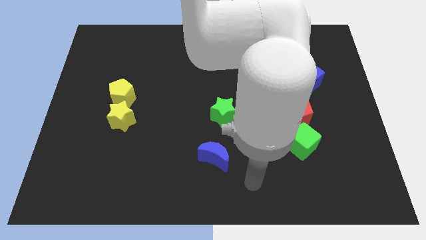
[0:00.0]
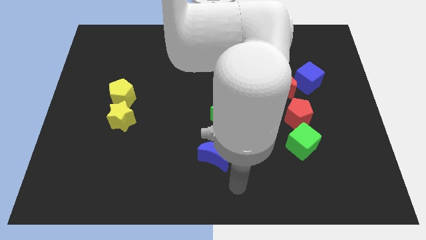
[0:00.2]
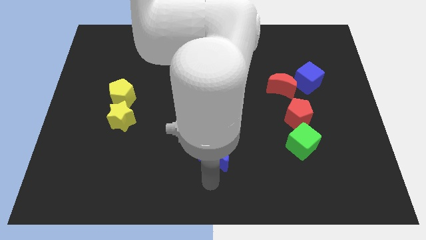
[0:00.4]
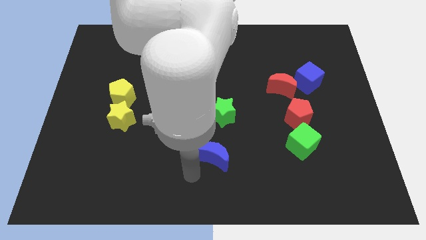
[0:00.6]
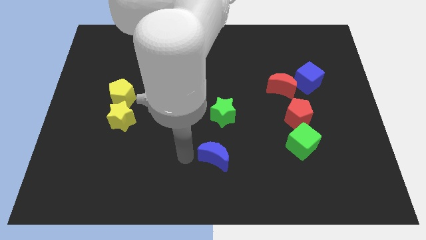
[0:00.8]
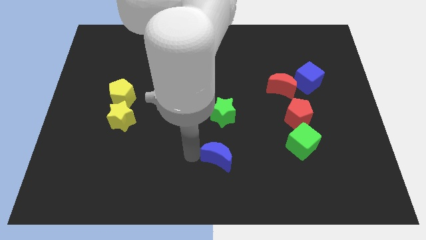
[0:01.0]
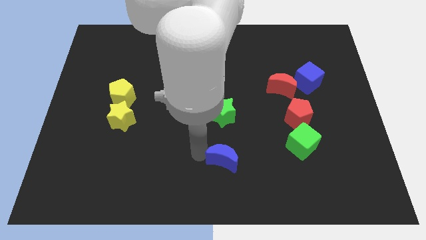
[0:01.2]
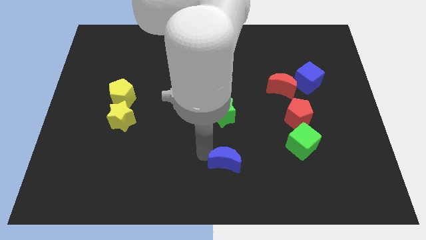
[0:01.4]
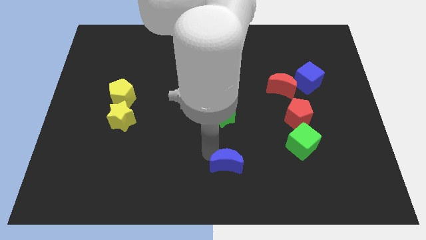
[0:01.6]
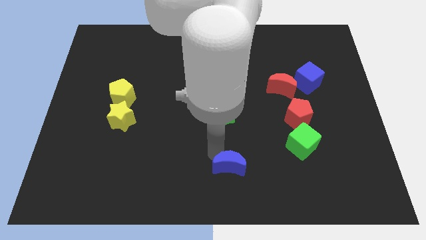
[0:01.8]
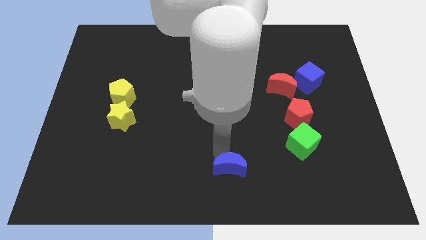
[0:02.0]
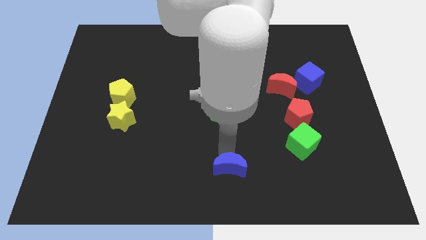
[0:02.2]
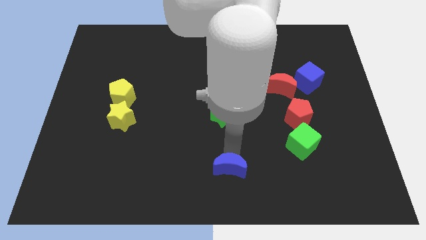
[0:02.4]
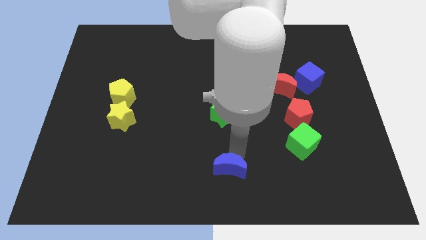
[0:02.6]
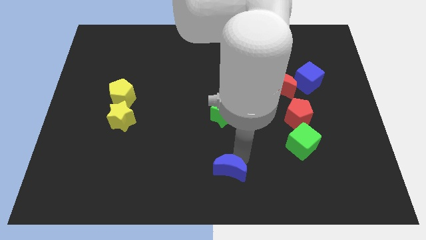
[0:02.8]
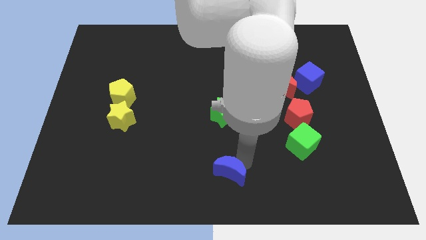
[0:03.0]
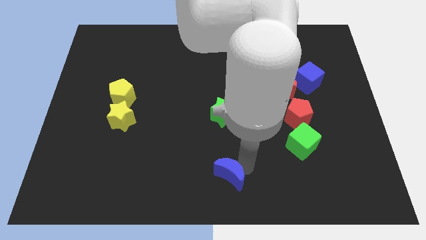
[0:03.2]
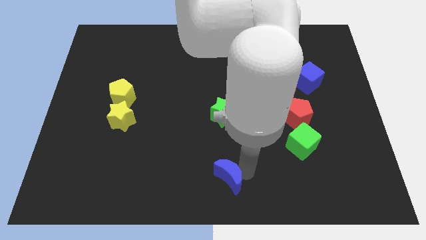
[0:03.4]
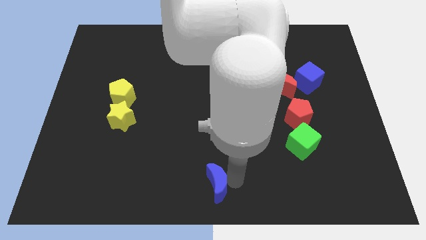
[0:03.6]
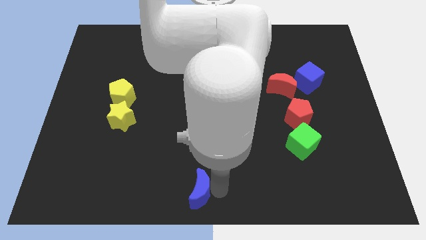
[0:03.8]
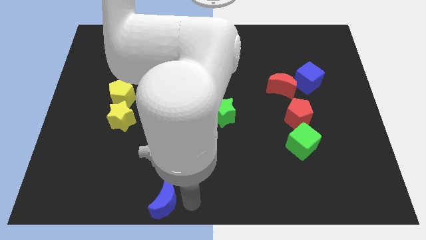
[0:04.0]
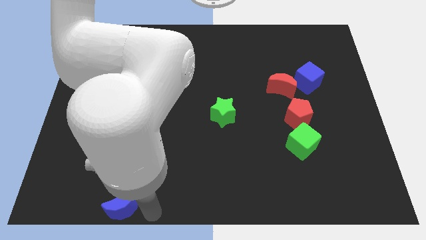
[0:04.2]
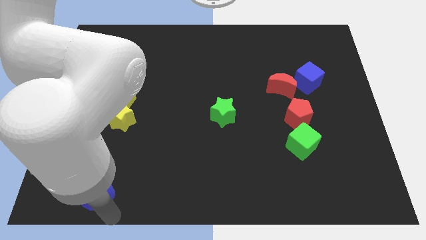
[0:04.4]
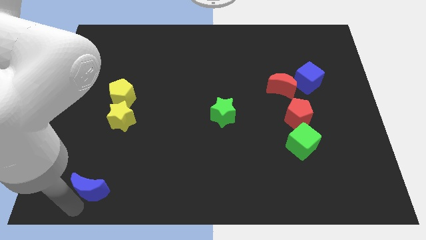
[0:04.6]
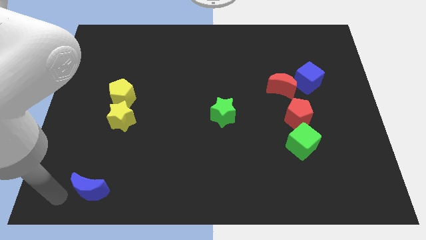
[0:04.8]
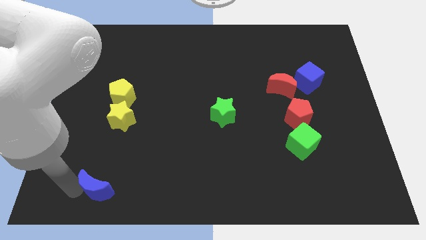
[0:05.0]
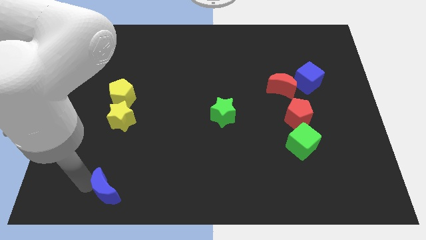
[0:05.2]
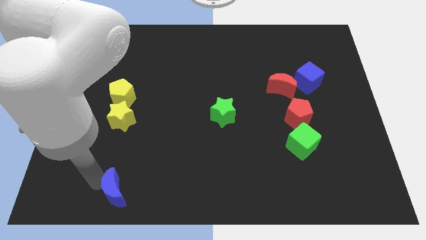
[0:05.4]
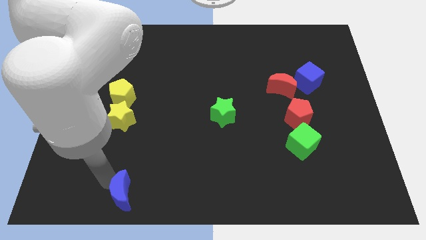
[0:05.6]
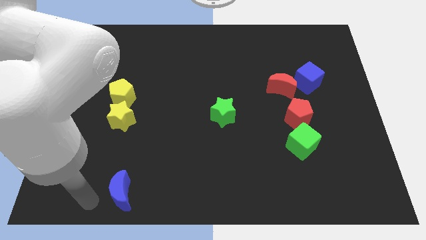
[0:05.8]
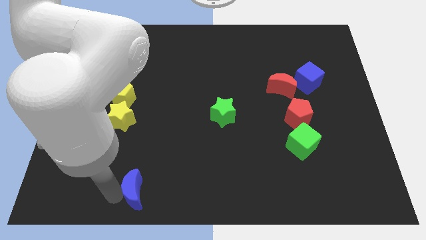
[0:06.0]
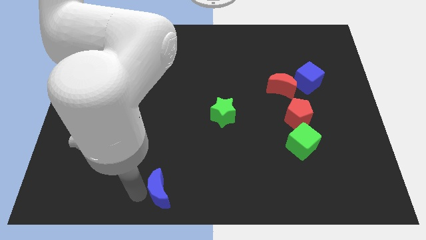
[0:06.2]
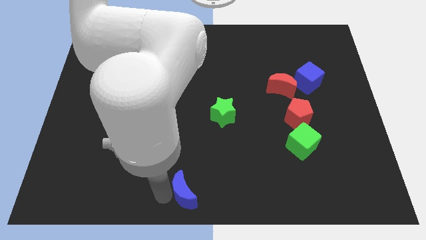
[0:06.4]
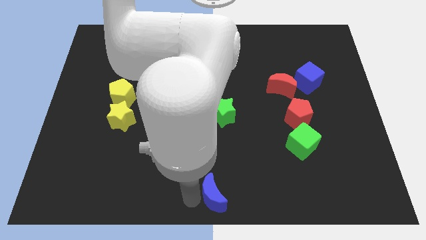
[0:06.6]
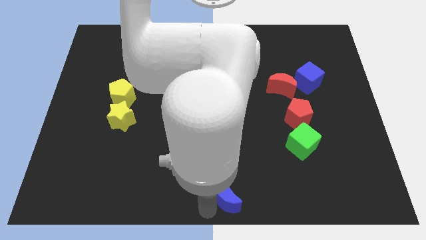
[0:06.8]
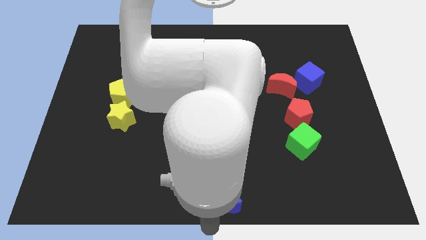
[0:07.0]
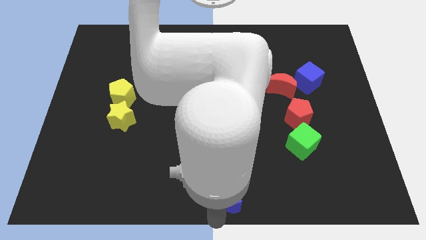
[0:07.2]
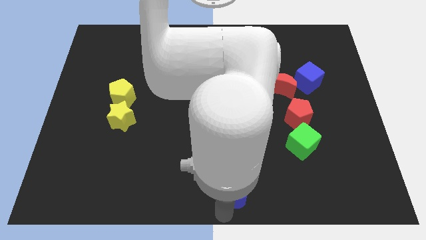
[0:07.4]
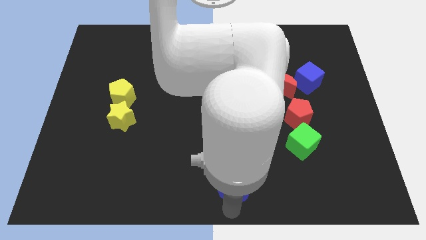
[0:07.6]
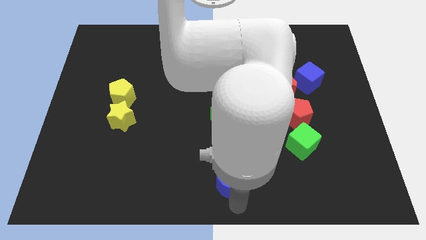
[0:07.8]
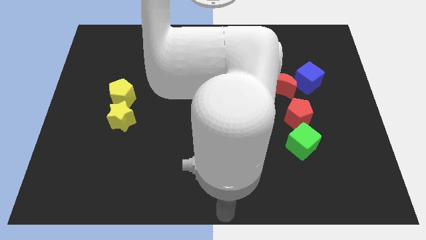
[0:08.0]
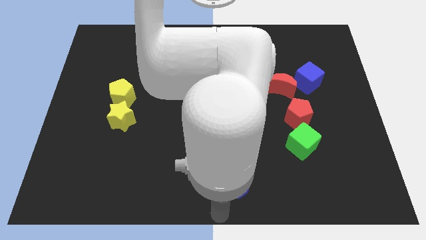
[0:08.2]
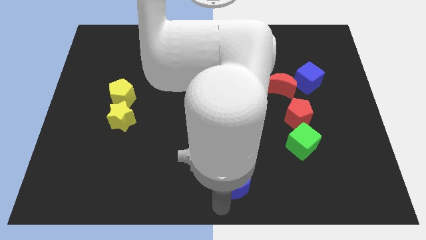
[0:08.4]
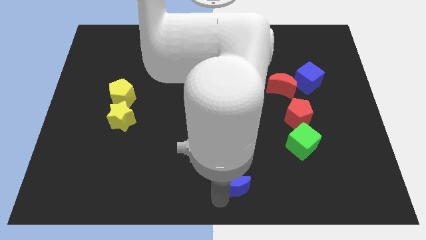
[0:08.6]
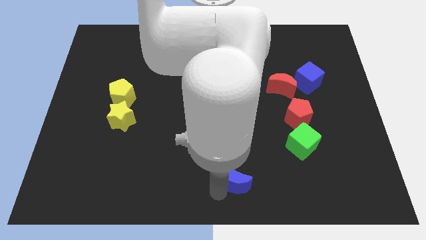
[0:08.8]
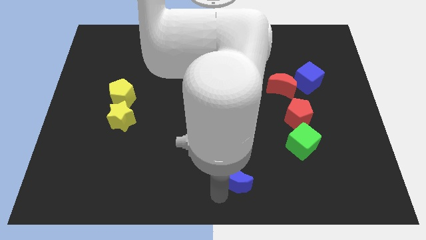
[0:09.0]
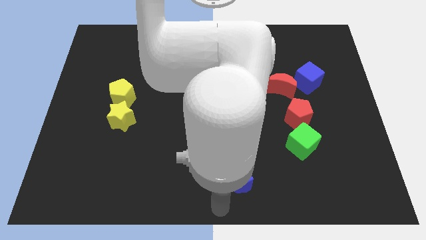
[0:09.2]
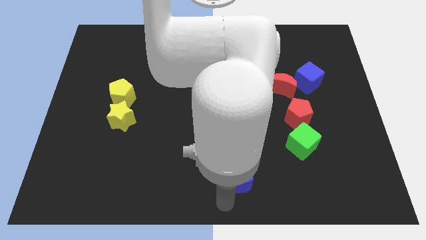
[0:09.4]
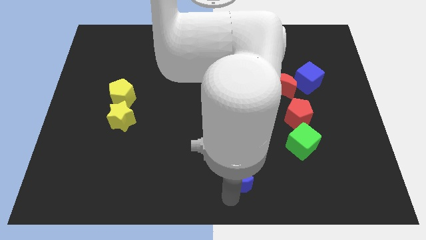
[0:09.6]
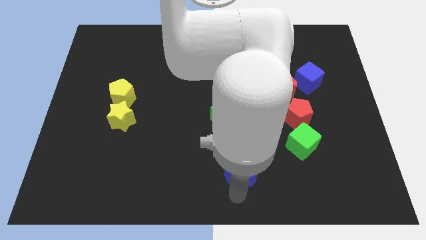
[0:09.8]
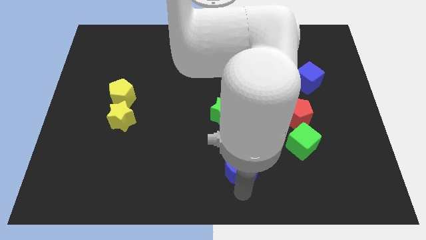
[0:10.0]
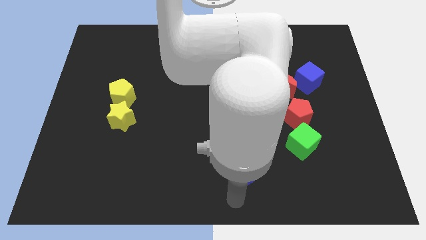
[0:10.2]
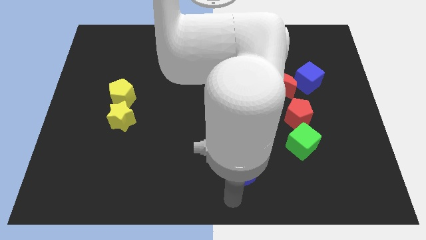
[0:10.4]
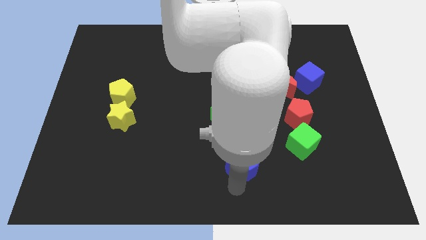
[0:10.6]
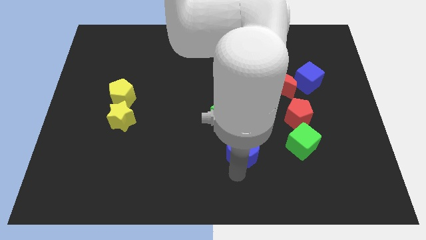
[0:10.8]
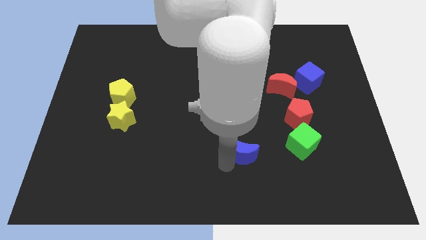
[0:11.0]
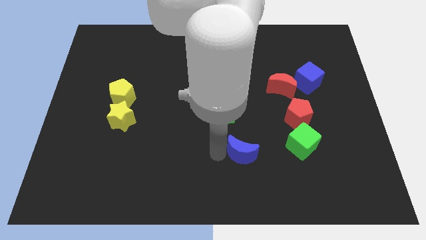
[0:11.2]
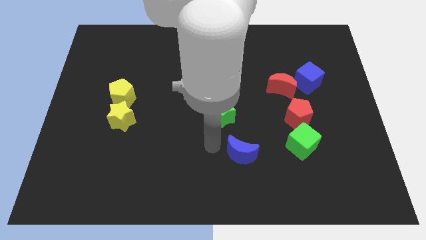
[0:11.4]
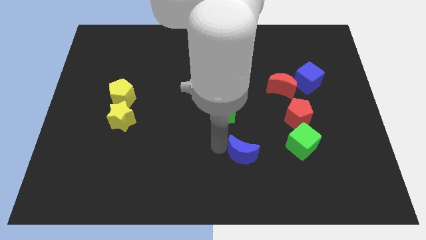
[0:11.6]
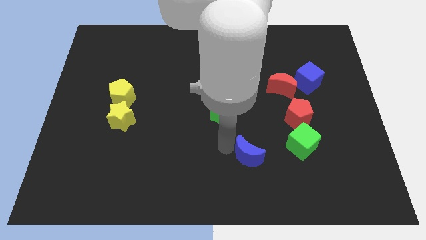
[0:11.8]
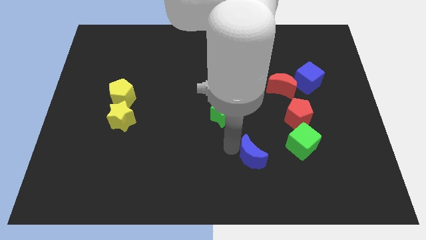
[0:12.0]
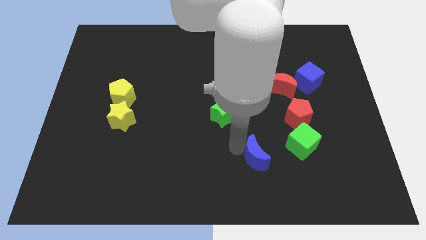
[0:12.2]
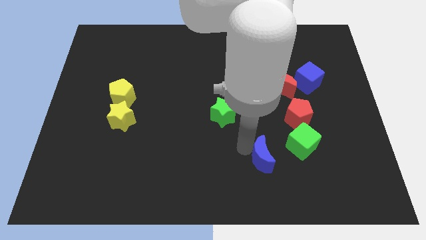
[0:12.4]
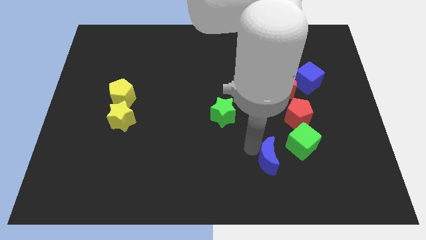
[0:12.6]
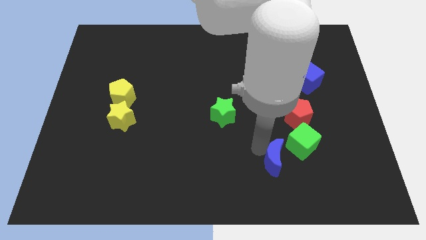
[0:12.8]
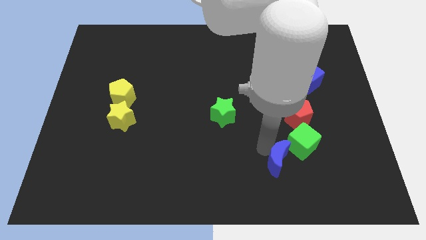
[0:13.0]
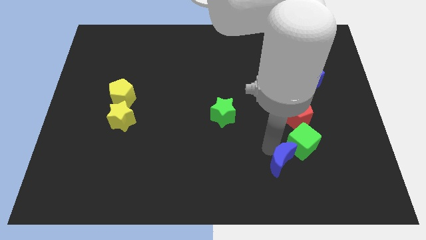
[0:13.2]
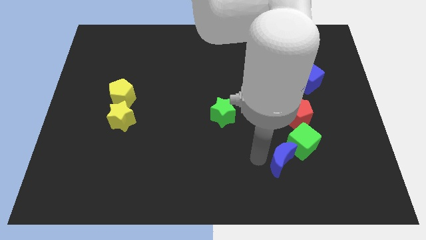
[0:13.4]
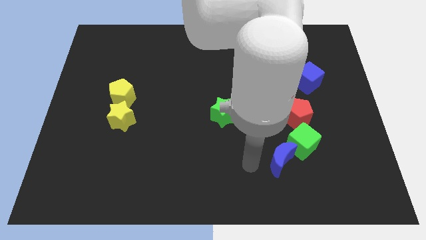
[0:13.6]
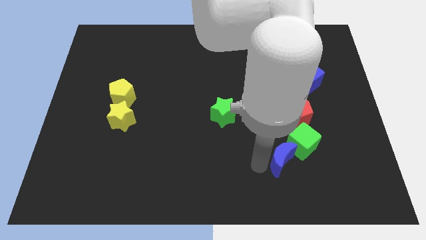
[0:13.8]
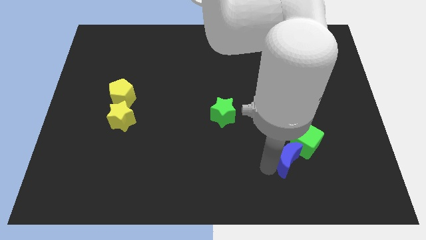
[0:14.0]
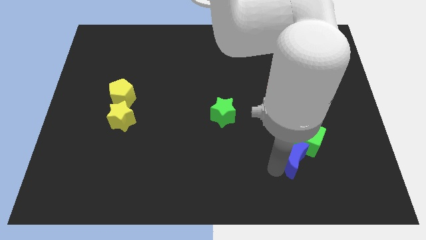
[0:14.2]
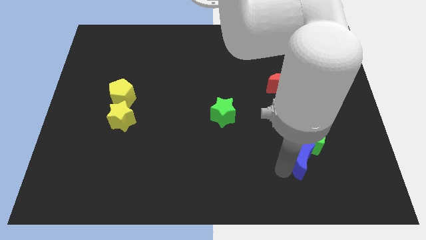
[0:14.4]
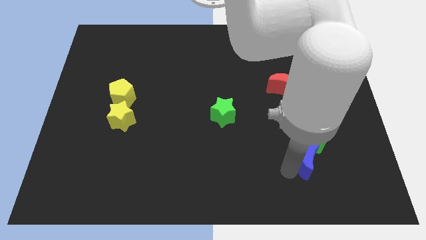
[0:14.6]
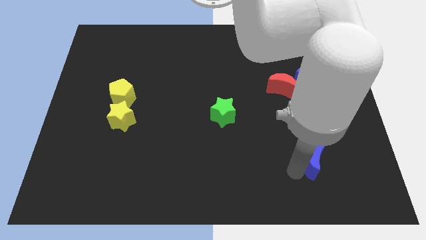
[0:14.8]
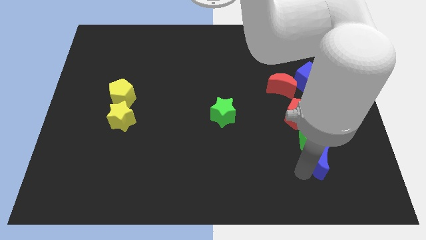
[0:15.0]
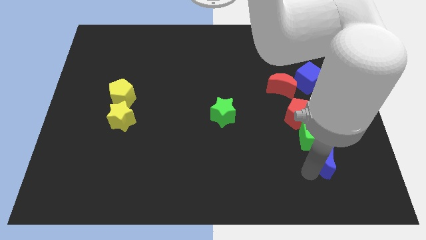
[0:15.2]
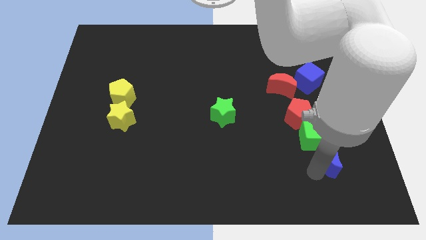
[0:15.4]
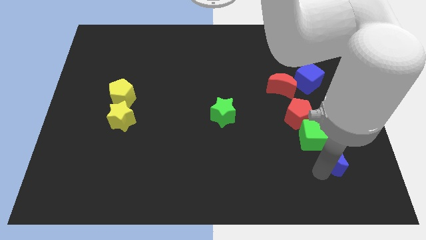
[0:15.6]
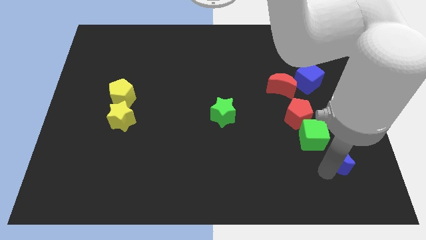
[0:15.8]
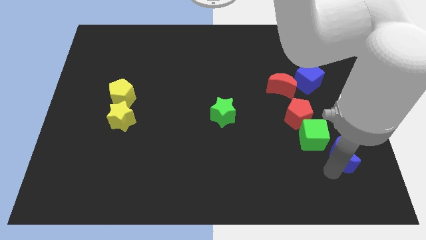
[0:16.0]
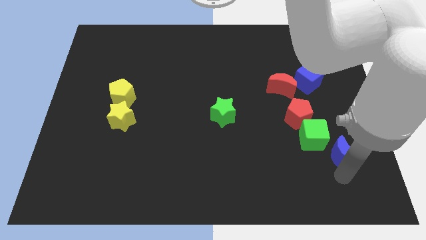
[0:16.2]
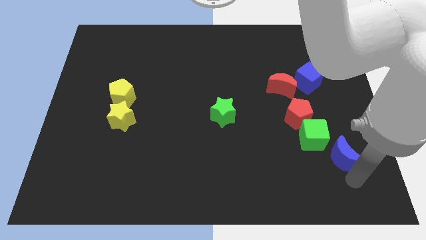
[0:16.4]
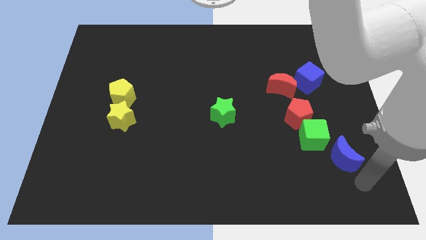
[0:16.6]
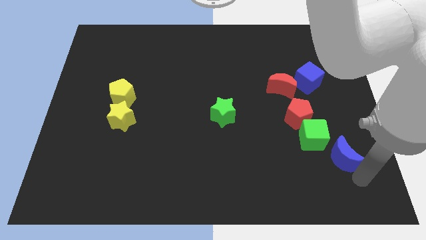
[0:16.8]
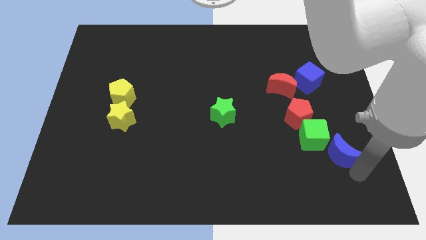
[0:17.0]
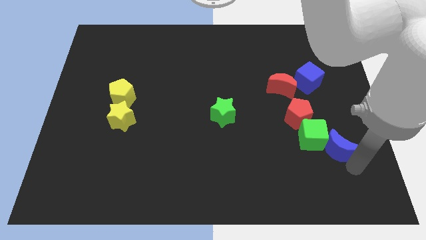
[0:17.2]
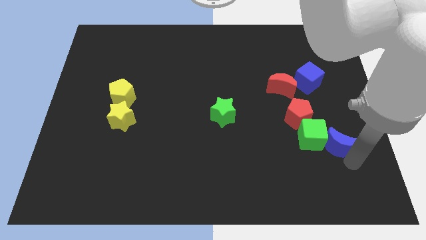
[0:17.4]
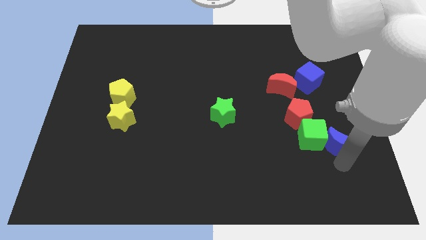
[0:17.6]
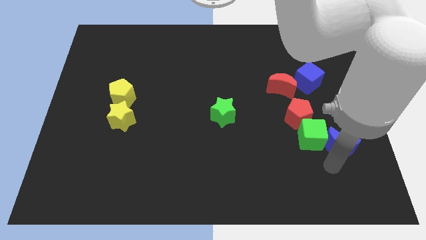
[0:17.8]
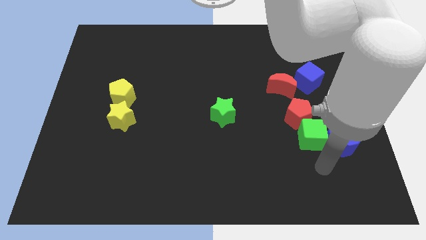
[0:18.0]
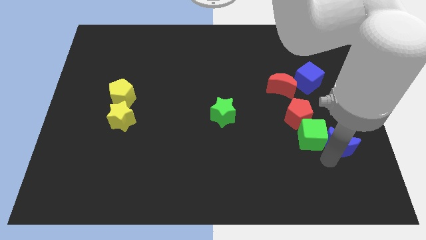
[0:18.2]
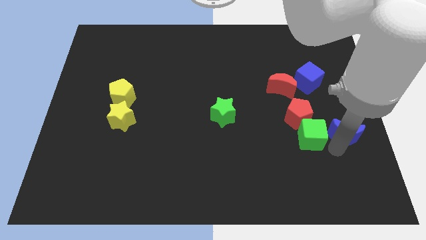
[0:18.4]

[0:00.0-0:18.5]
move the blue moon to the center right
